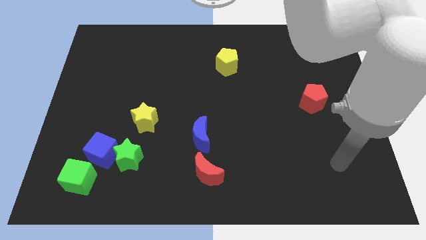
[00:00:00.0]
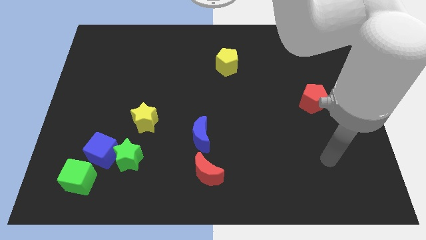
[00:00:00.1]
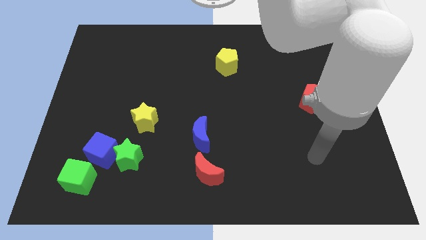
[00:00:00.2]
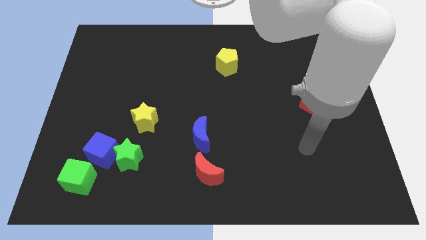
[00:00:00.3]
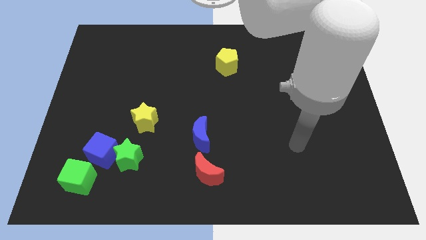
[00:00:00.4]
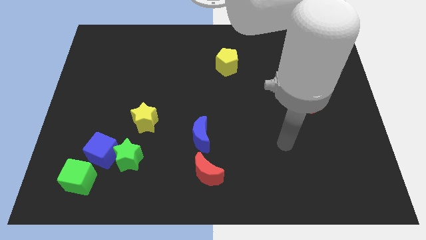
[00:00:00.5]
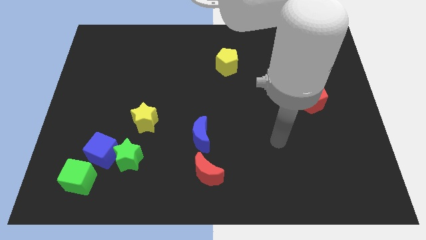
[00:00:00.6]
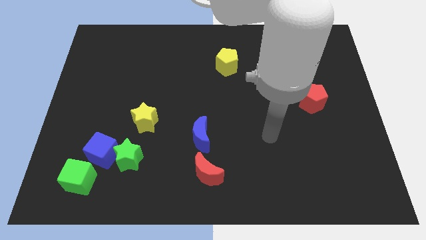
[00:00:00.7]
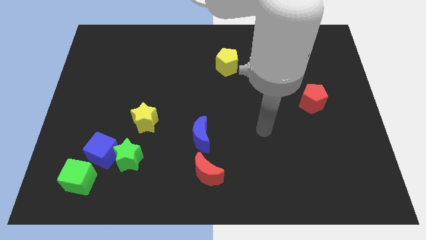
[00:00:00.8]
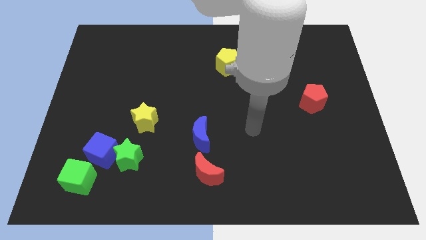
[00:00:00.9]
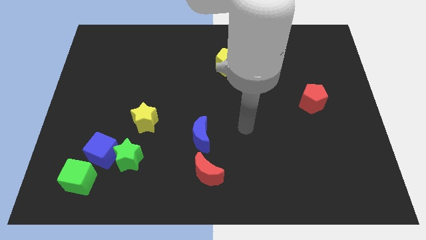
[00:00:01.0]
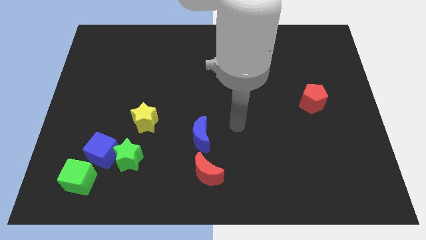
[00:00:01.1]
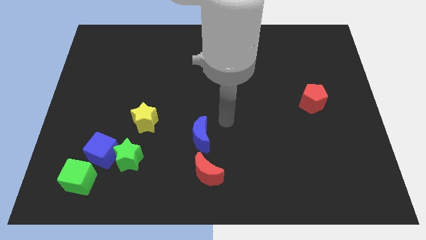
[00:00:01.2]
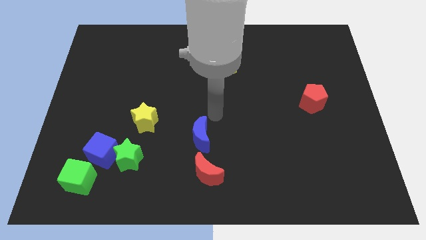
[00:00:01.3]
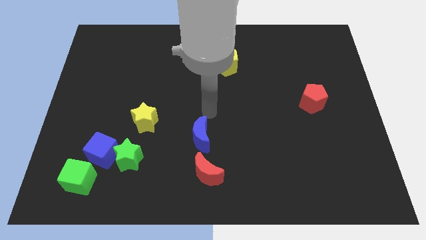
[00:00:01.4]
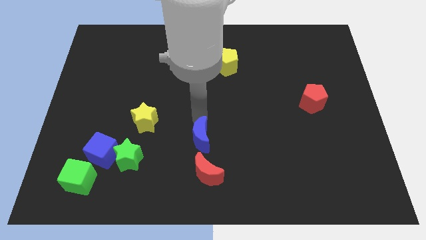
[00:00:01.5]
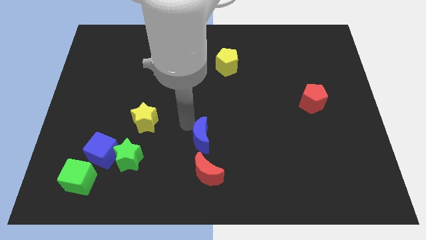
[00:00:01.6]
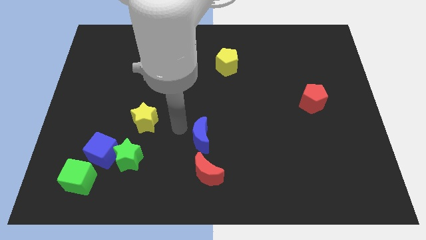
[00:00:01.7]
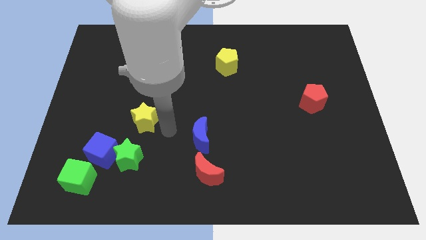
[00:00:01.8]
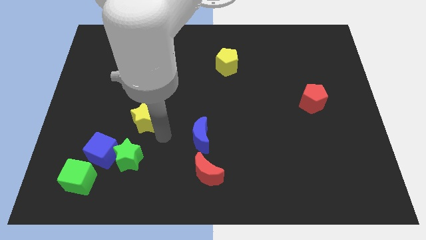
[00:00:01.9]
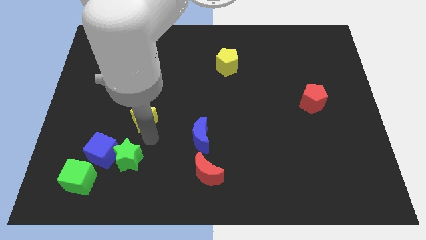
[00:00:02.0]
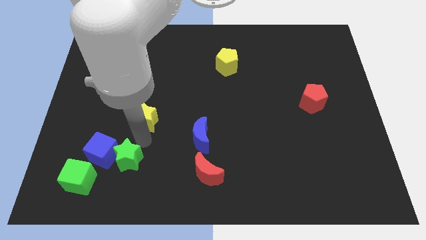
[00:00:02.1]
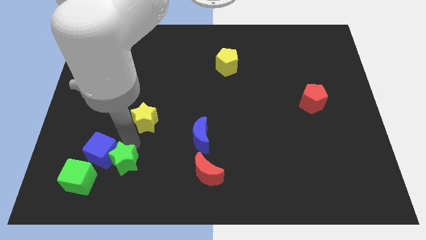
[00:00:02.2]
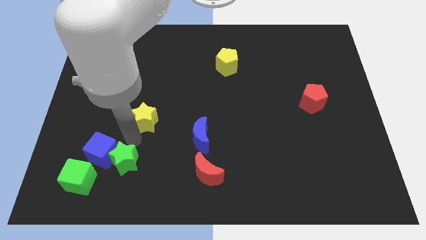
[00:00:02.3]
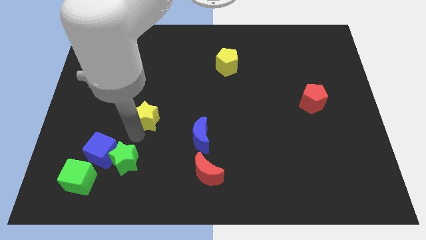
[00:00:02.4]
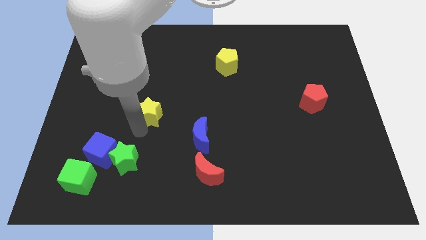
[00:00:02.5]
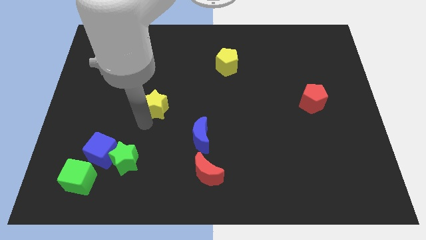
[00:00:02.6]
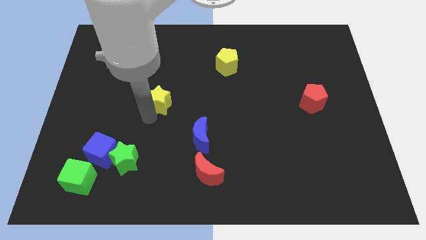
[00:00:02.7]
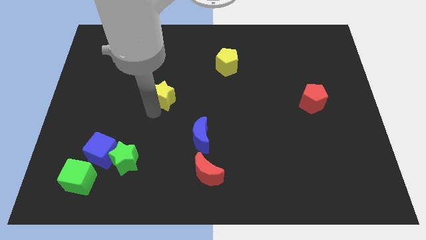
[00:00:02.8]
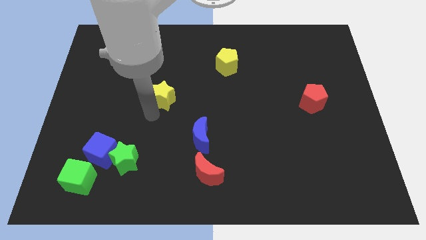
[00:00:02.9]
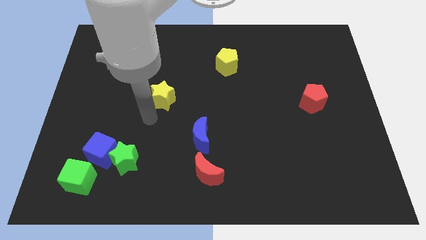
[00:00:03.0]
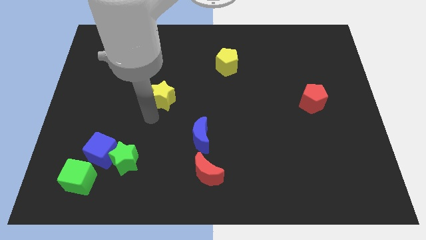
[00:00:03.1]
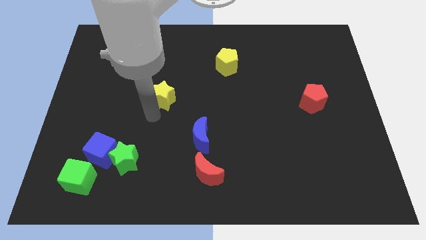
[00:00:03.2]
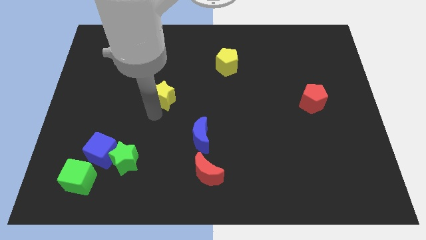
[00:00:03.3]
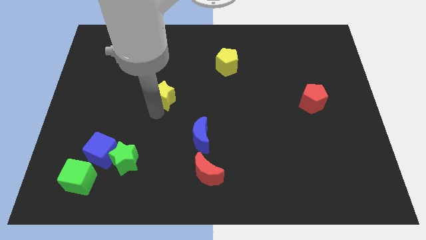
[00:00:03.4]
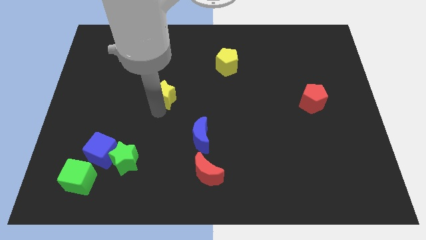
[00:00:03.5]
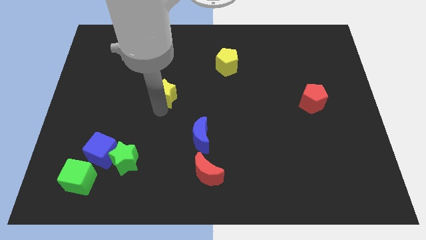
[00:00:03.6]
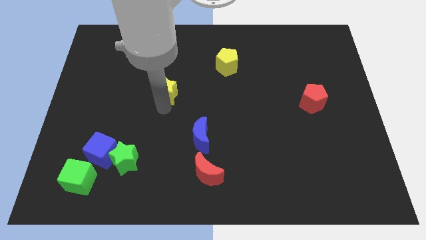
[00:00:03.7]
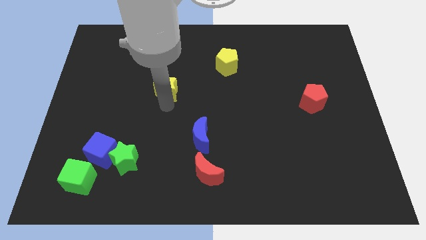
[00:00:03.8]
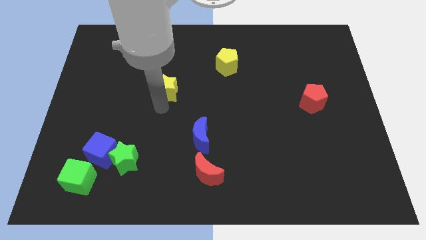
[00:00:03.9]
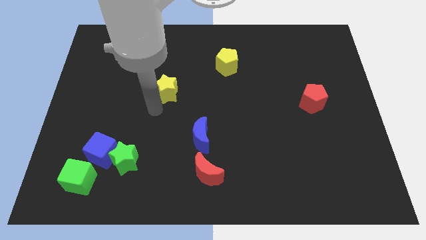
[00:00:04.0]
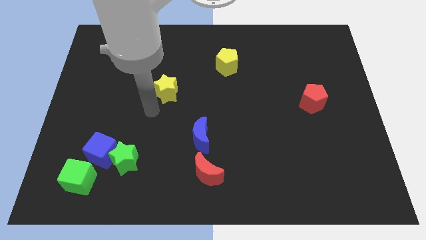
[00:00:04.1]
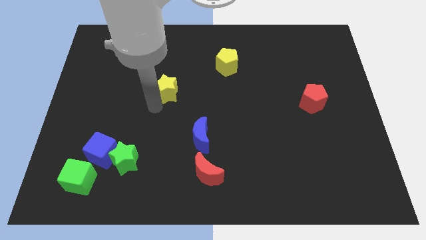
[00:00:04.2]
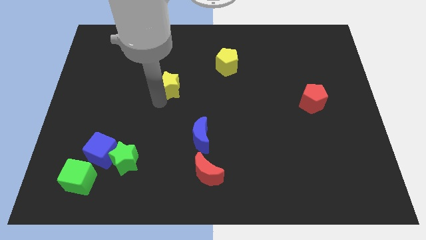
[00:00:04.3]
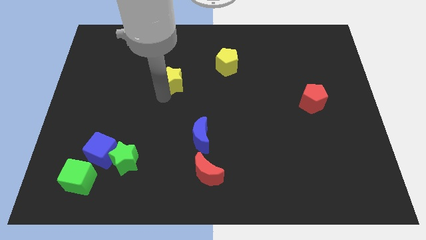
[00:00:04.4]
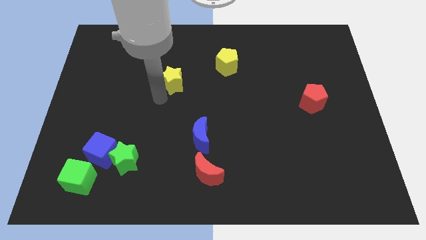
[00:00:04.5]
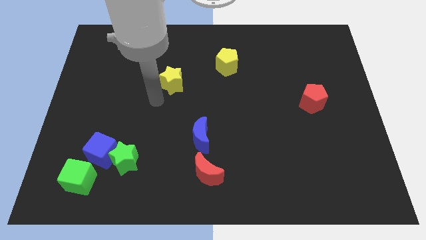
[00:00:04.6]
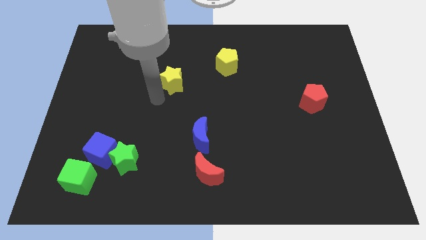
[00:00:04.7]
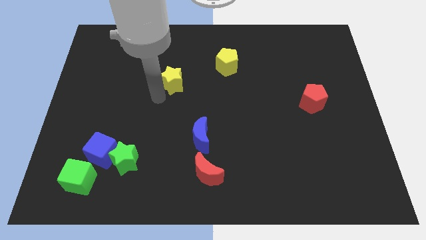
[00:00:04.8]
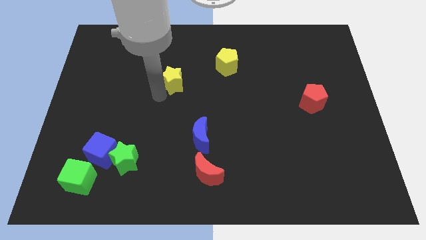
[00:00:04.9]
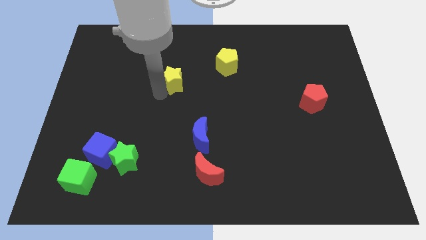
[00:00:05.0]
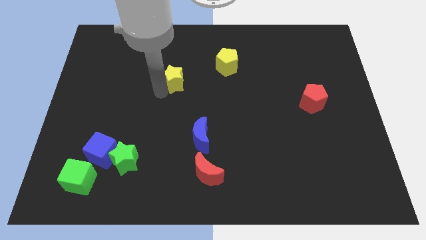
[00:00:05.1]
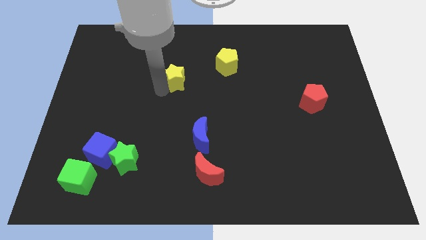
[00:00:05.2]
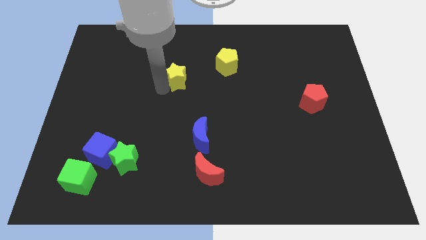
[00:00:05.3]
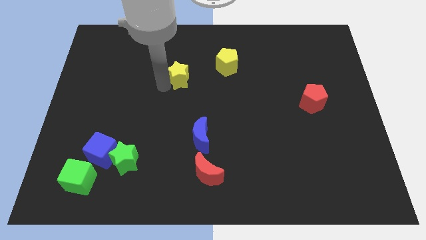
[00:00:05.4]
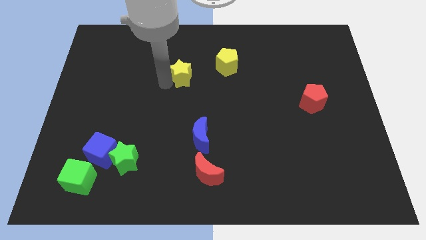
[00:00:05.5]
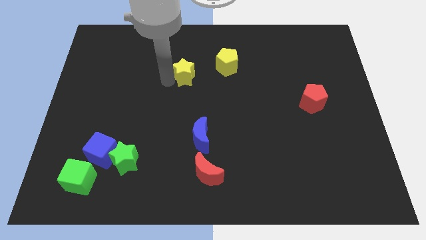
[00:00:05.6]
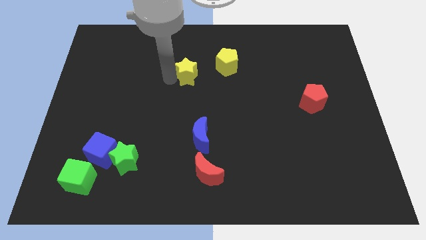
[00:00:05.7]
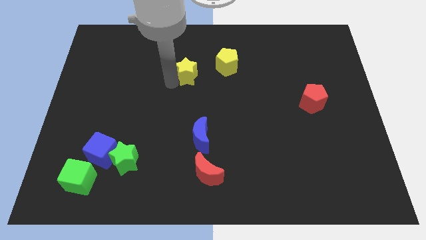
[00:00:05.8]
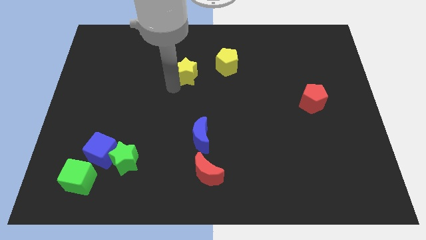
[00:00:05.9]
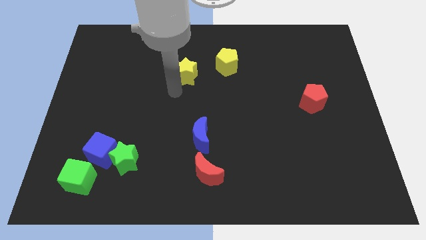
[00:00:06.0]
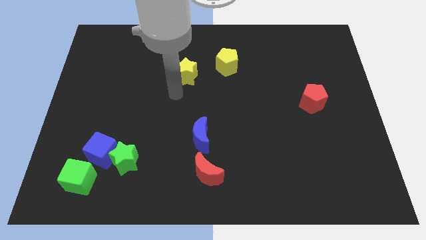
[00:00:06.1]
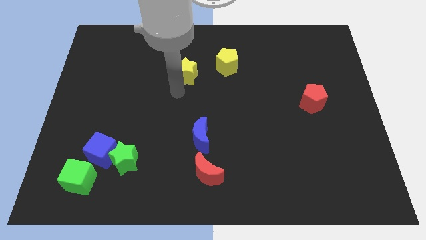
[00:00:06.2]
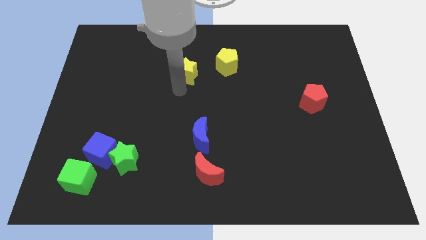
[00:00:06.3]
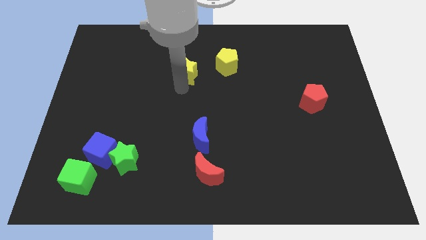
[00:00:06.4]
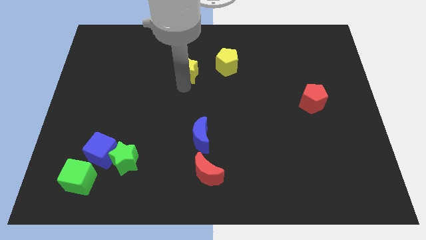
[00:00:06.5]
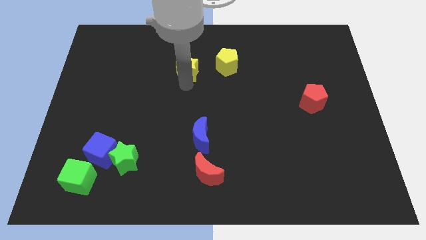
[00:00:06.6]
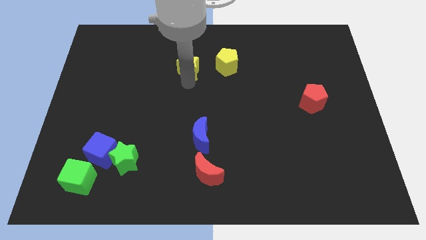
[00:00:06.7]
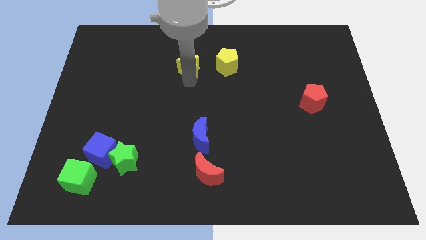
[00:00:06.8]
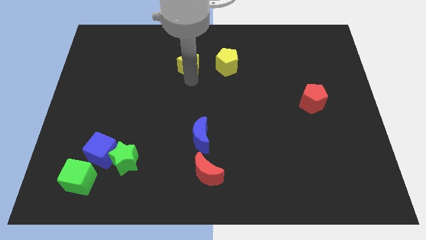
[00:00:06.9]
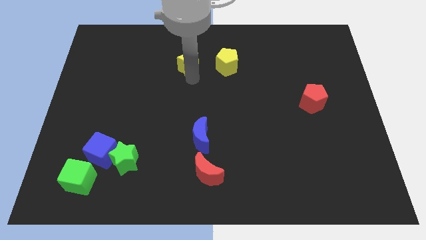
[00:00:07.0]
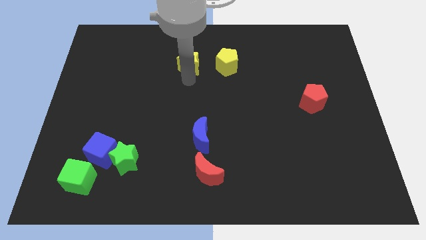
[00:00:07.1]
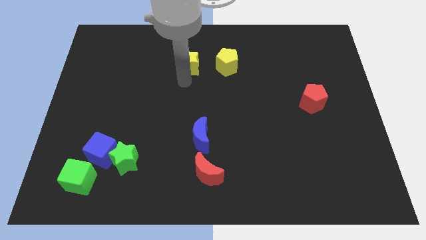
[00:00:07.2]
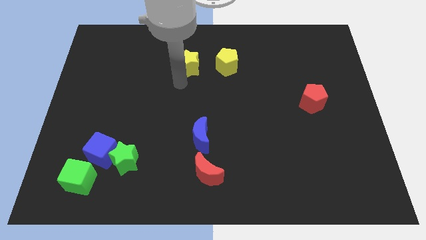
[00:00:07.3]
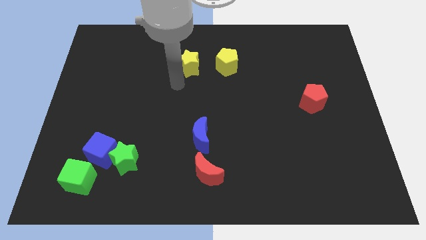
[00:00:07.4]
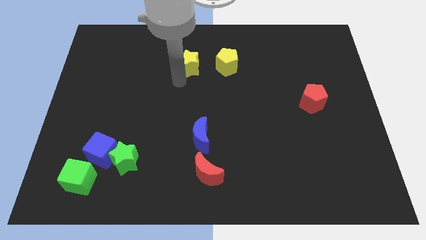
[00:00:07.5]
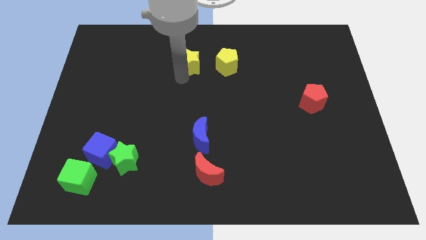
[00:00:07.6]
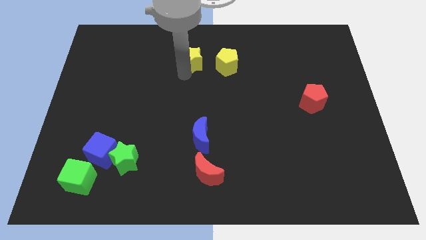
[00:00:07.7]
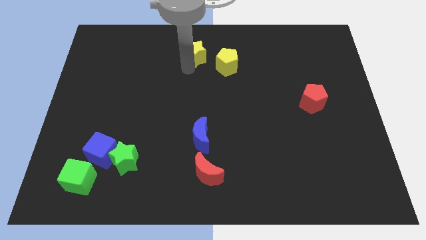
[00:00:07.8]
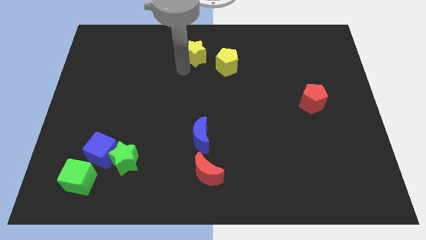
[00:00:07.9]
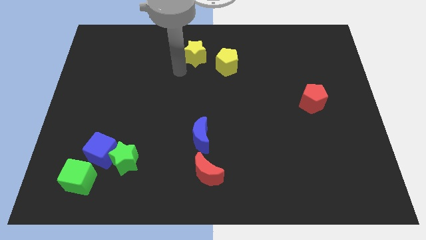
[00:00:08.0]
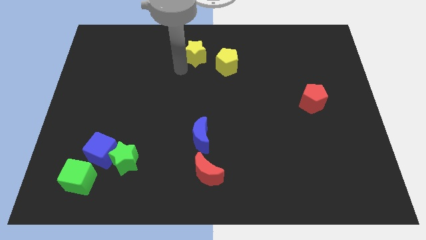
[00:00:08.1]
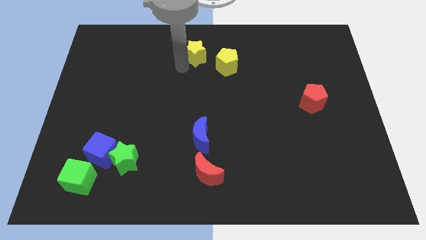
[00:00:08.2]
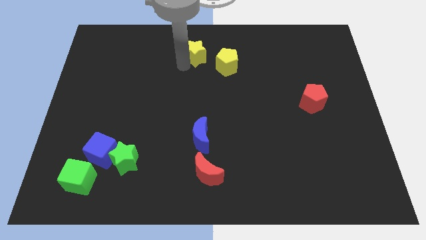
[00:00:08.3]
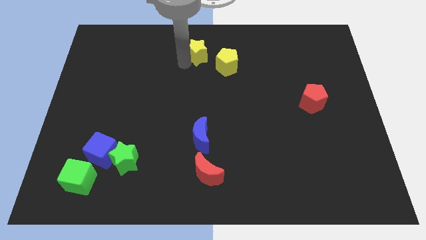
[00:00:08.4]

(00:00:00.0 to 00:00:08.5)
slide the yellow star to the top
